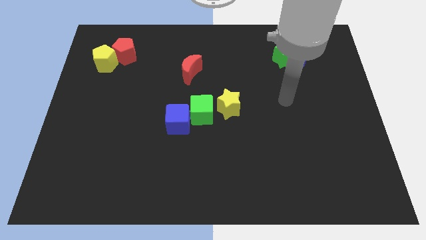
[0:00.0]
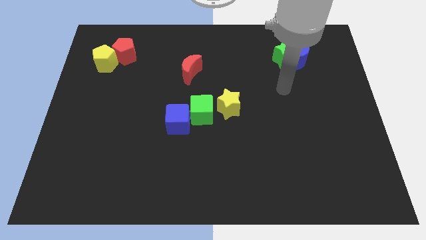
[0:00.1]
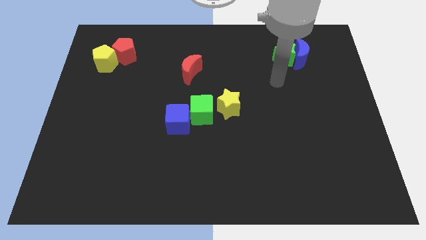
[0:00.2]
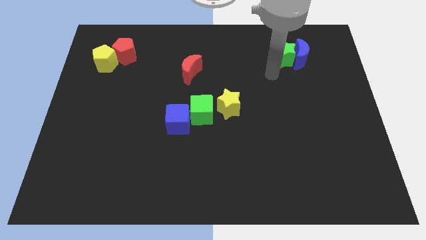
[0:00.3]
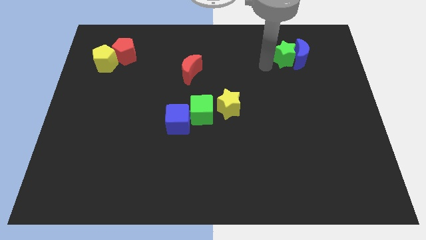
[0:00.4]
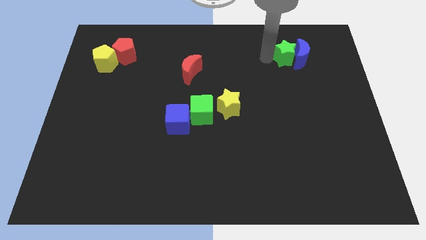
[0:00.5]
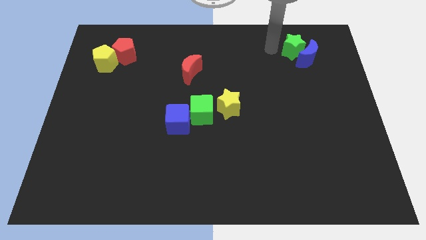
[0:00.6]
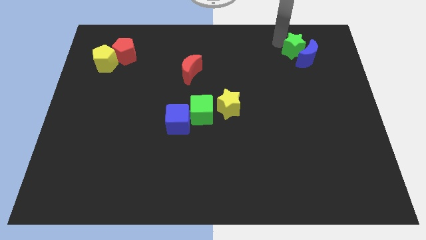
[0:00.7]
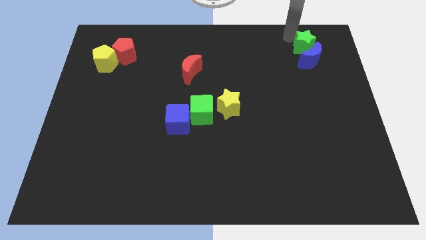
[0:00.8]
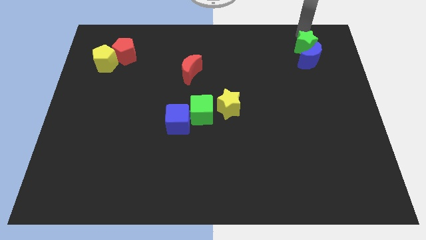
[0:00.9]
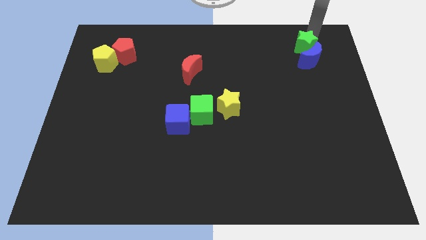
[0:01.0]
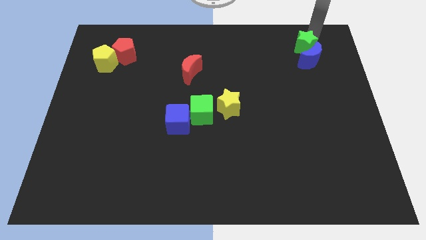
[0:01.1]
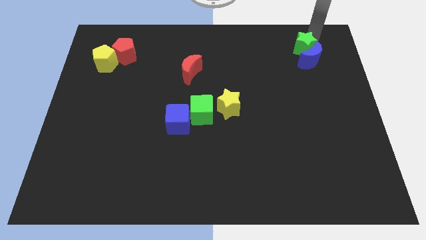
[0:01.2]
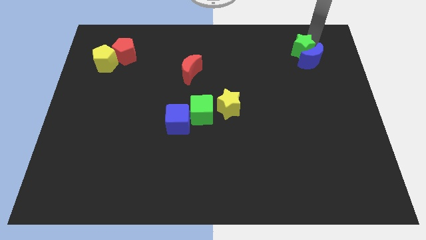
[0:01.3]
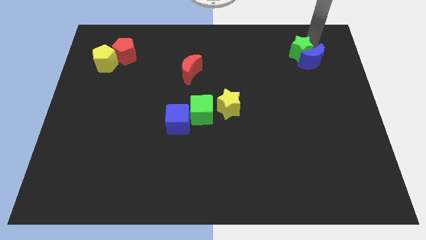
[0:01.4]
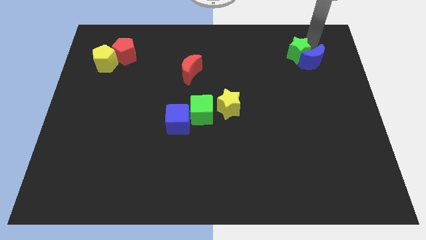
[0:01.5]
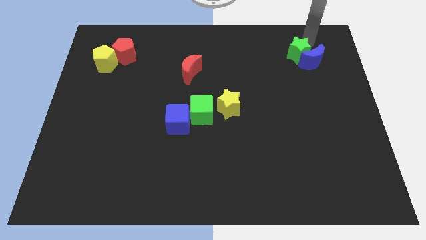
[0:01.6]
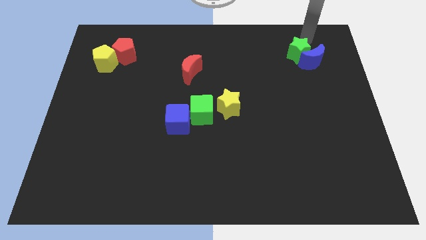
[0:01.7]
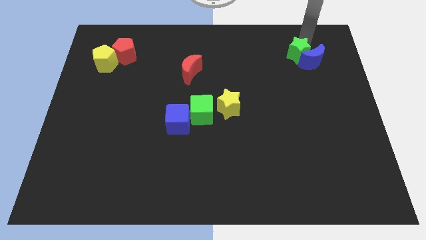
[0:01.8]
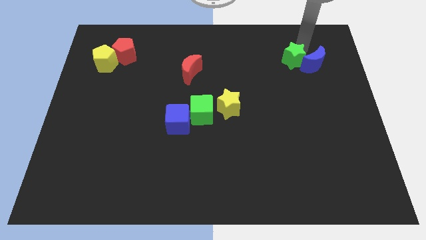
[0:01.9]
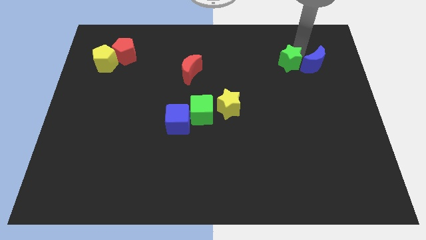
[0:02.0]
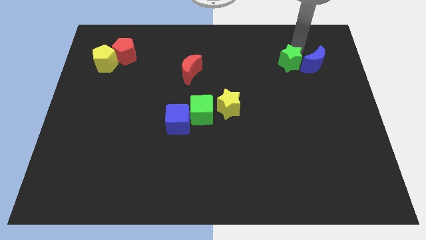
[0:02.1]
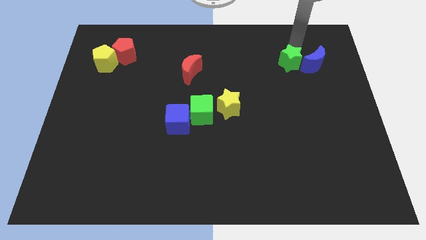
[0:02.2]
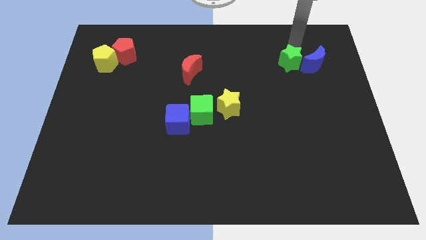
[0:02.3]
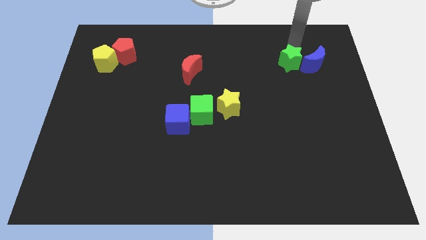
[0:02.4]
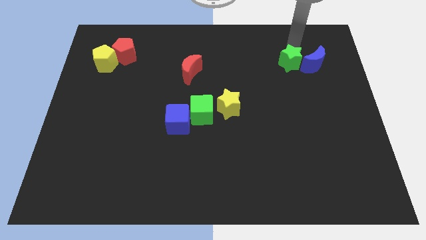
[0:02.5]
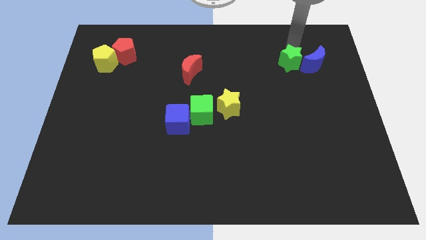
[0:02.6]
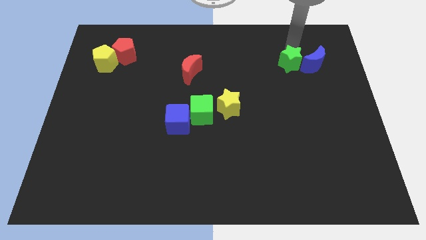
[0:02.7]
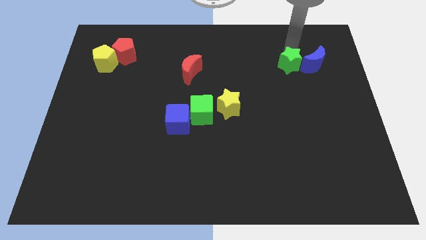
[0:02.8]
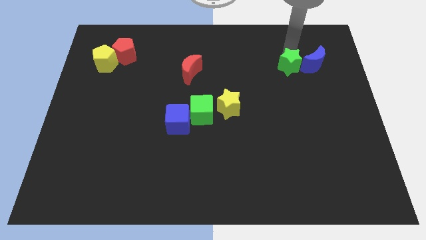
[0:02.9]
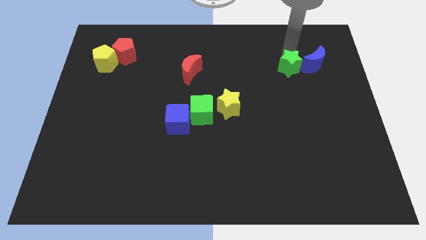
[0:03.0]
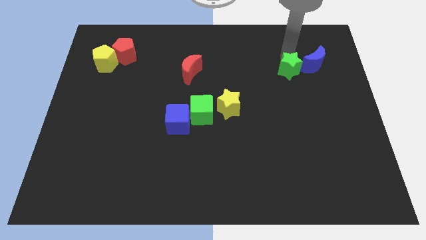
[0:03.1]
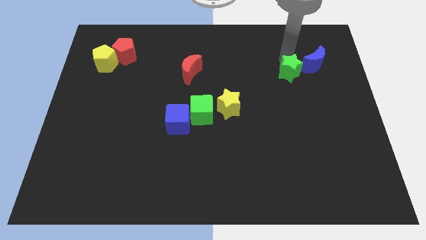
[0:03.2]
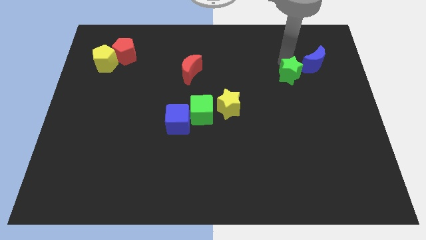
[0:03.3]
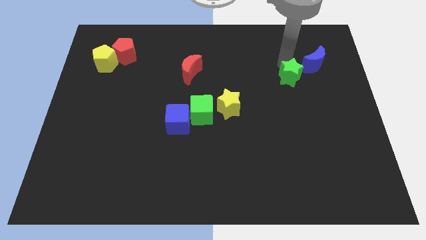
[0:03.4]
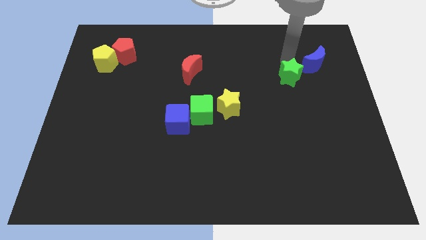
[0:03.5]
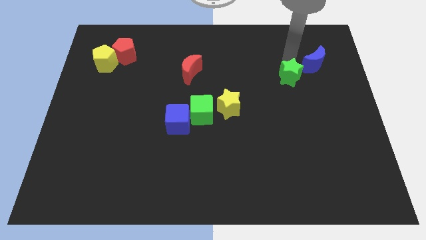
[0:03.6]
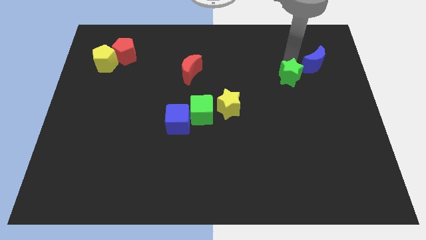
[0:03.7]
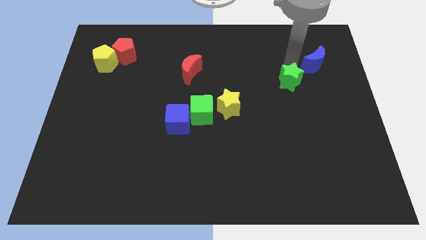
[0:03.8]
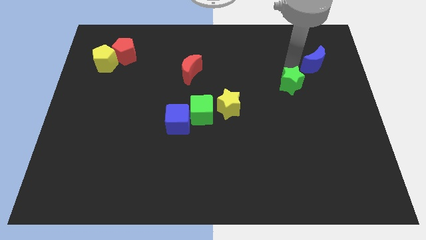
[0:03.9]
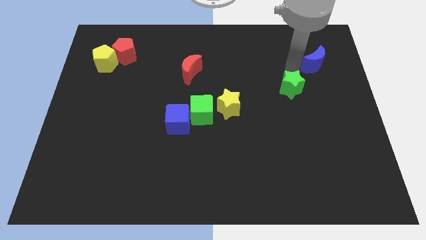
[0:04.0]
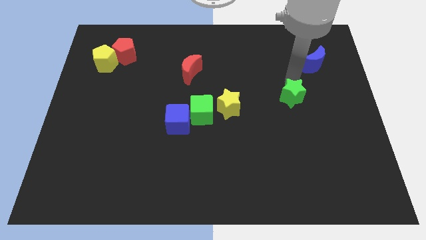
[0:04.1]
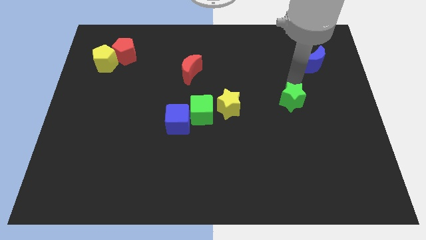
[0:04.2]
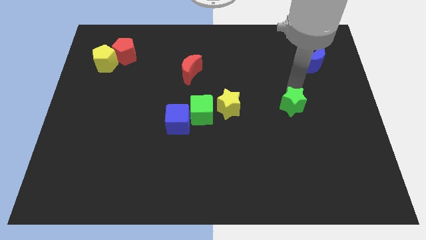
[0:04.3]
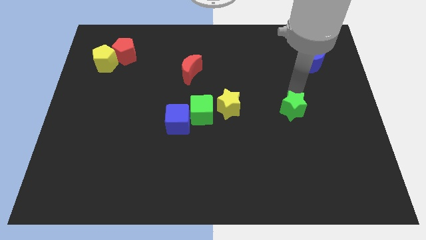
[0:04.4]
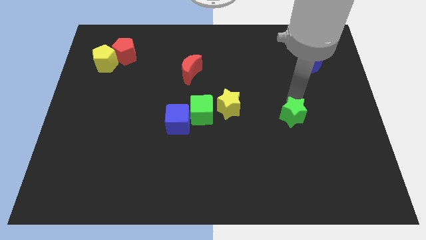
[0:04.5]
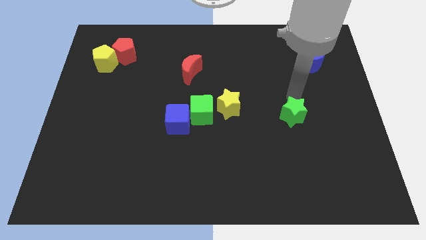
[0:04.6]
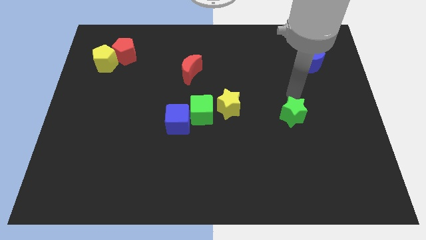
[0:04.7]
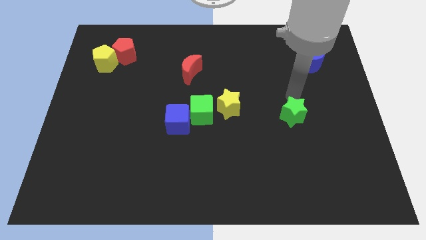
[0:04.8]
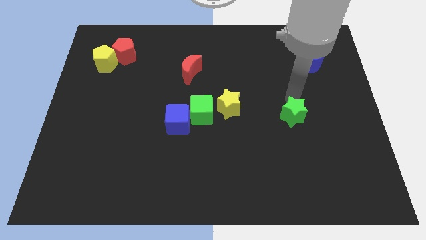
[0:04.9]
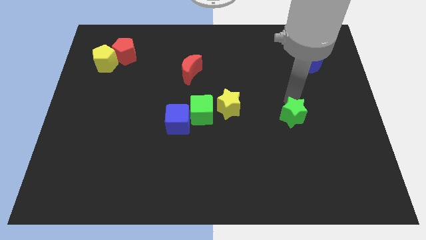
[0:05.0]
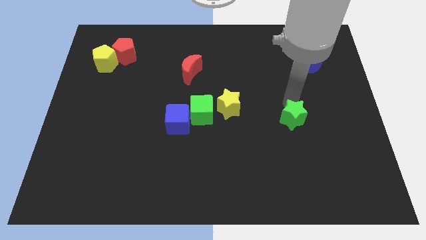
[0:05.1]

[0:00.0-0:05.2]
slide the green star down

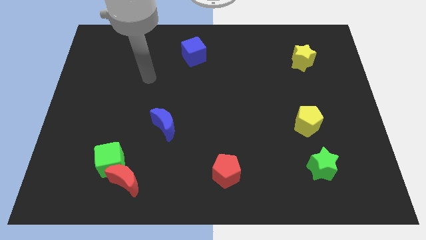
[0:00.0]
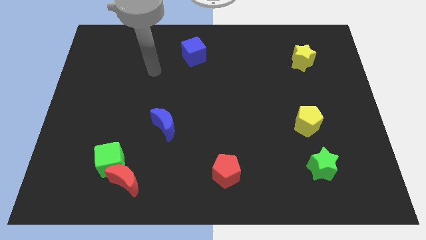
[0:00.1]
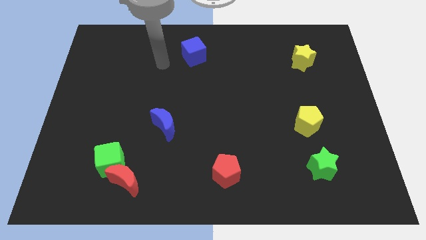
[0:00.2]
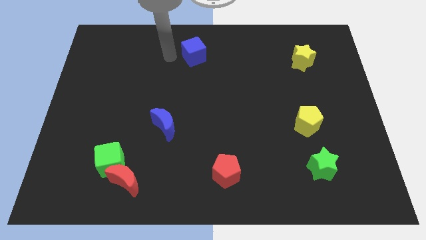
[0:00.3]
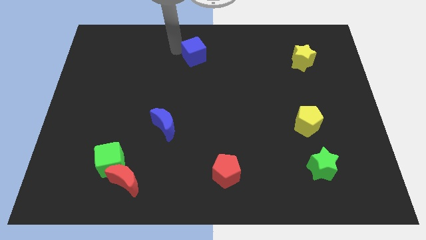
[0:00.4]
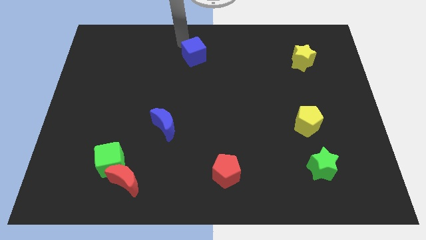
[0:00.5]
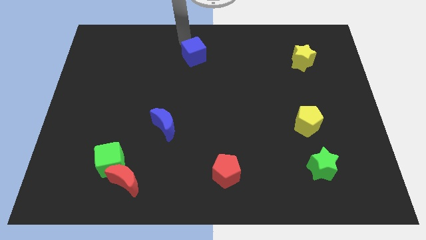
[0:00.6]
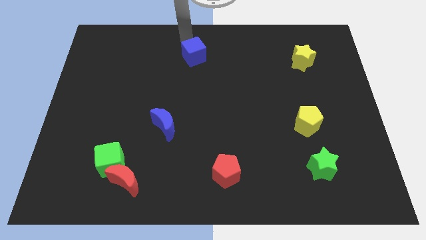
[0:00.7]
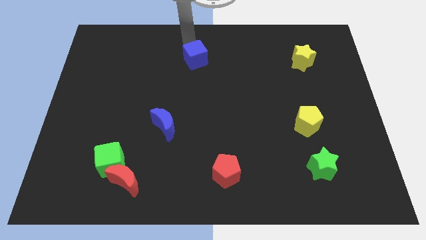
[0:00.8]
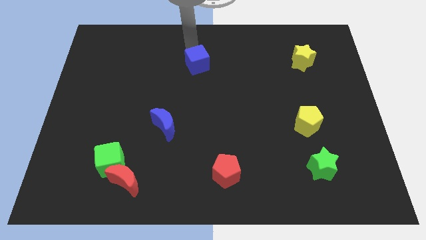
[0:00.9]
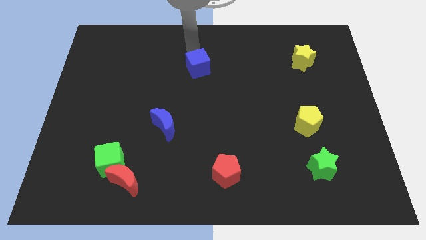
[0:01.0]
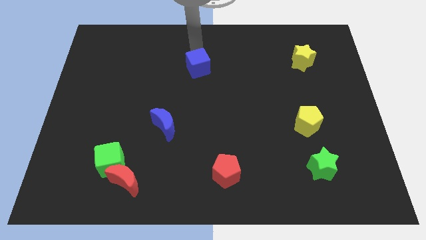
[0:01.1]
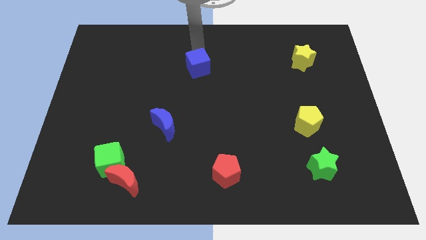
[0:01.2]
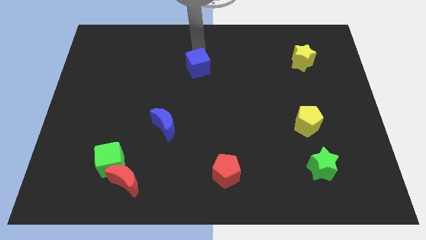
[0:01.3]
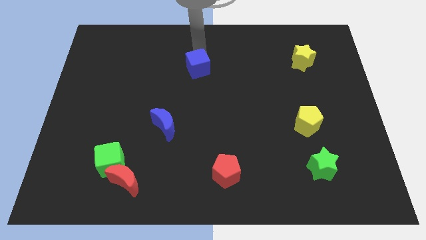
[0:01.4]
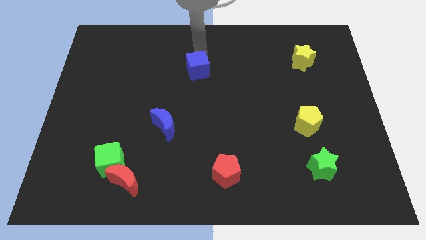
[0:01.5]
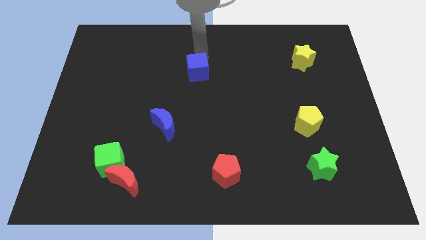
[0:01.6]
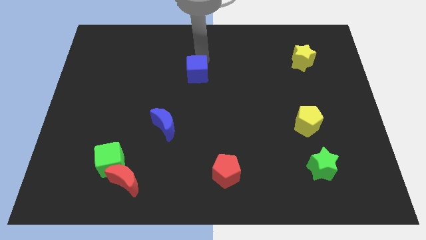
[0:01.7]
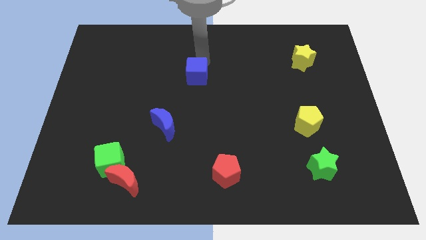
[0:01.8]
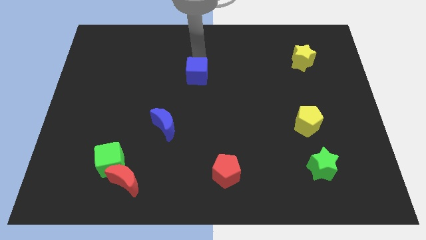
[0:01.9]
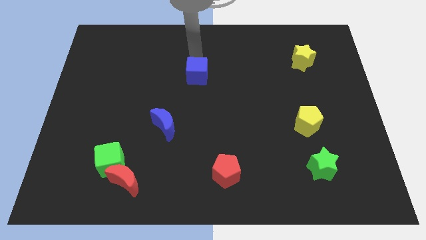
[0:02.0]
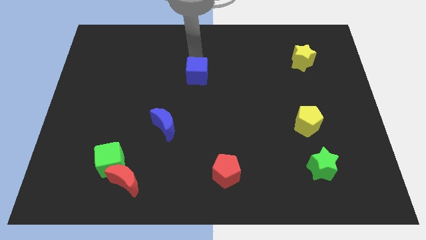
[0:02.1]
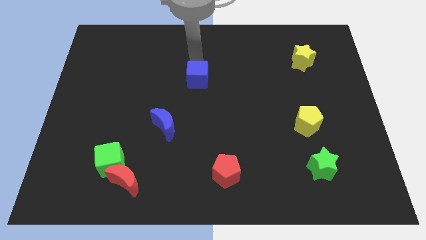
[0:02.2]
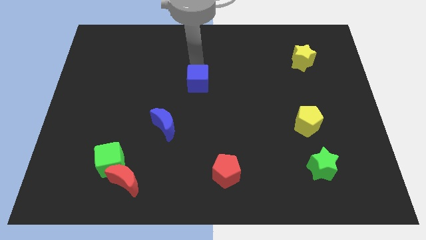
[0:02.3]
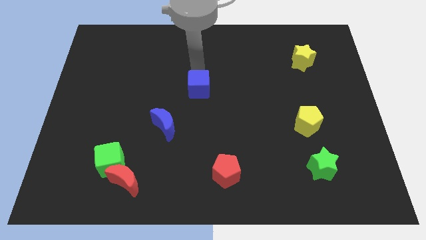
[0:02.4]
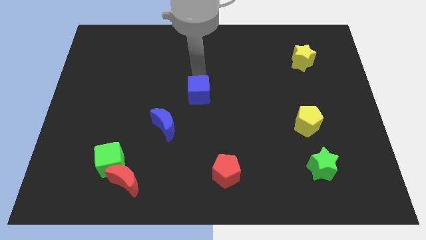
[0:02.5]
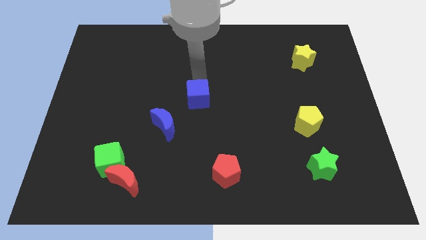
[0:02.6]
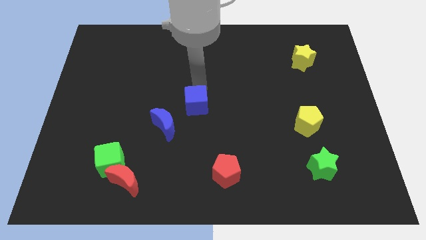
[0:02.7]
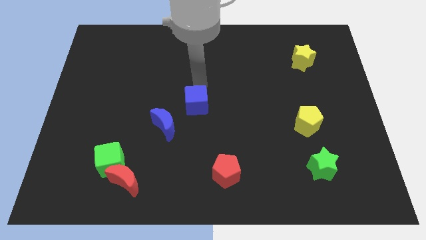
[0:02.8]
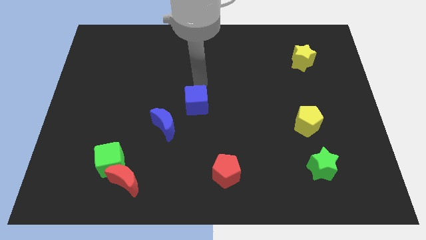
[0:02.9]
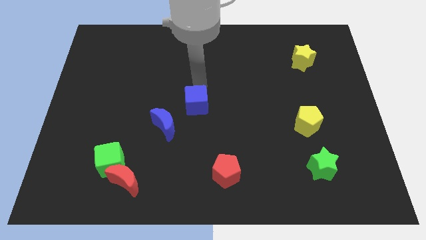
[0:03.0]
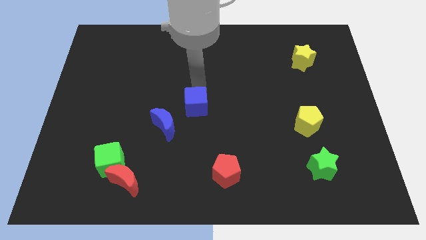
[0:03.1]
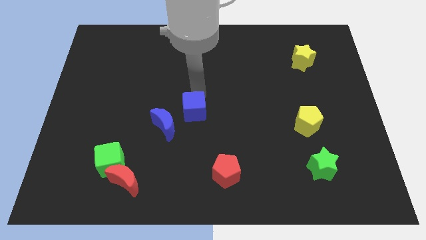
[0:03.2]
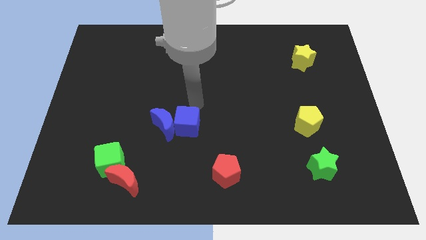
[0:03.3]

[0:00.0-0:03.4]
push the blue cube down
